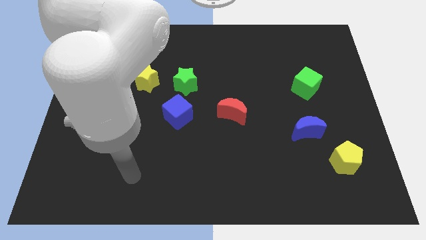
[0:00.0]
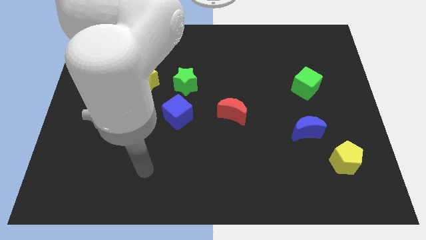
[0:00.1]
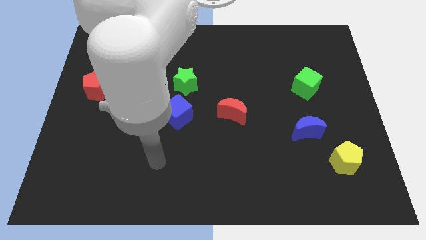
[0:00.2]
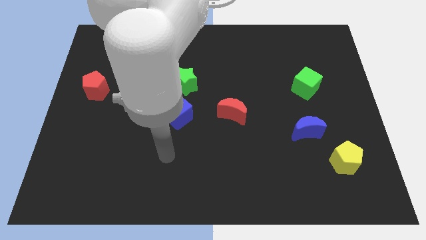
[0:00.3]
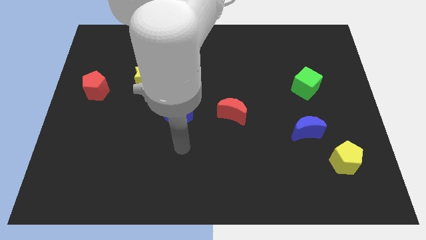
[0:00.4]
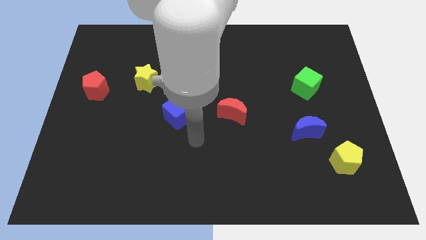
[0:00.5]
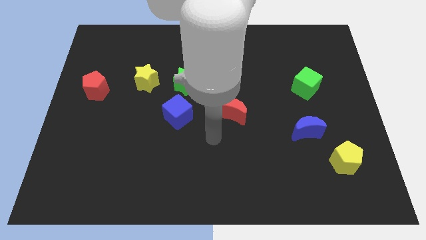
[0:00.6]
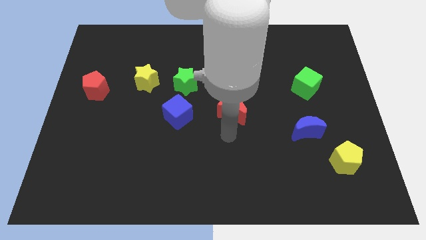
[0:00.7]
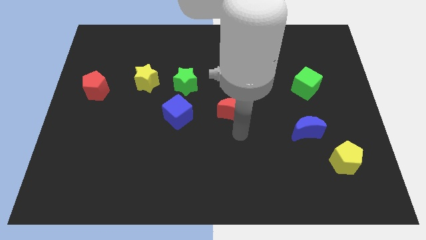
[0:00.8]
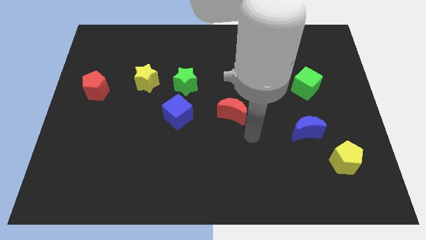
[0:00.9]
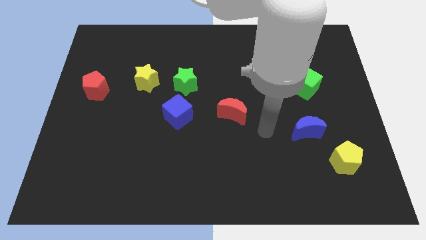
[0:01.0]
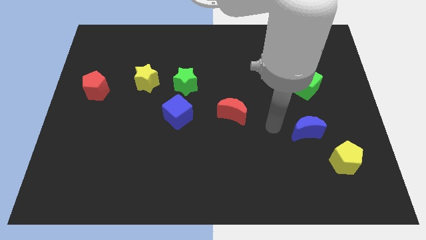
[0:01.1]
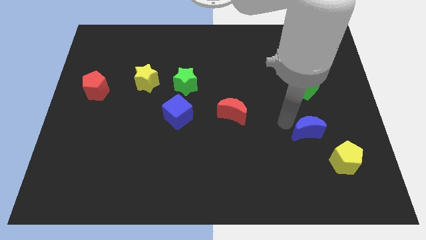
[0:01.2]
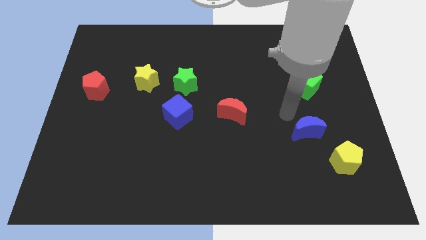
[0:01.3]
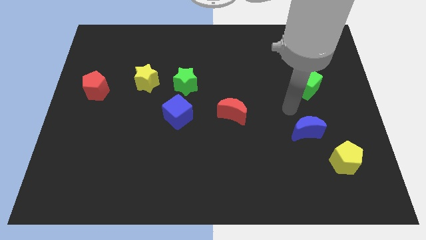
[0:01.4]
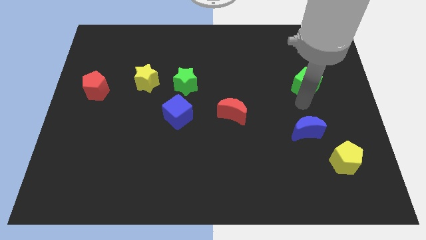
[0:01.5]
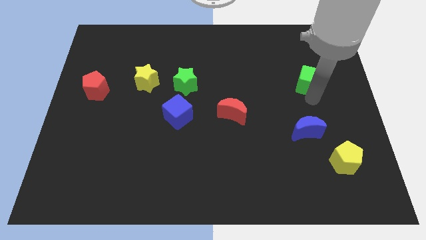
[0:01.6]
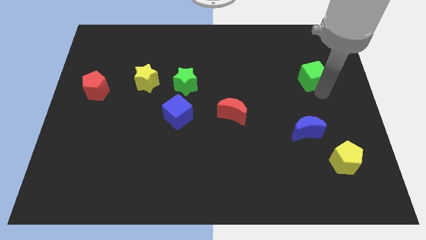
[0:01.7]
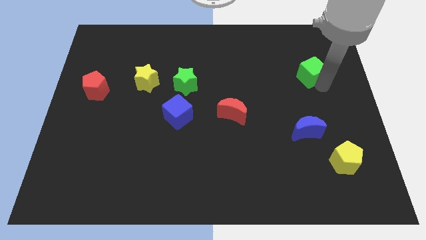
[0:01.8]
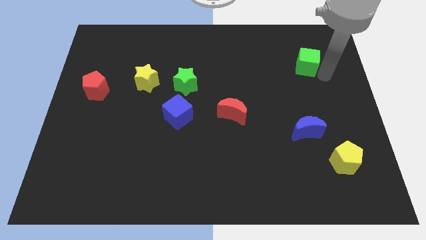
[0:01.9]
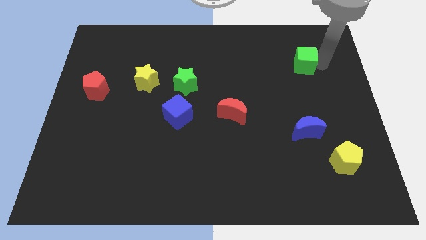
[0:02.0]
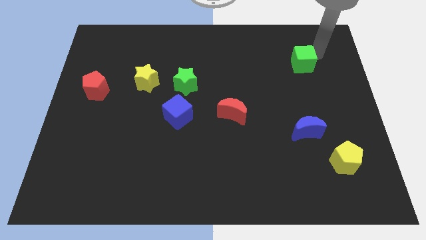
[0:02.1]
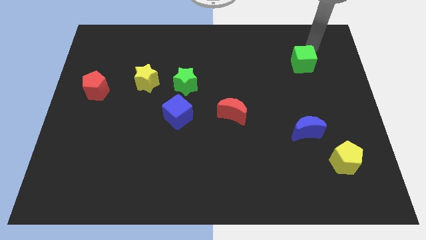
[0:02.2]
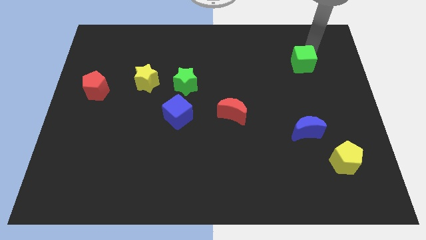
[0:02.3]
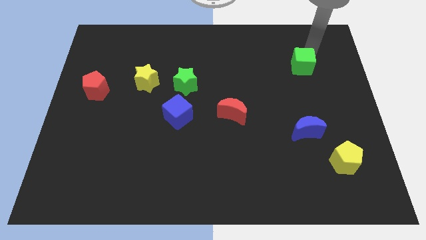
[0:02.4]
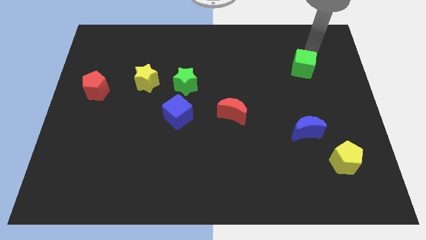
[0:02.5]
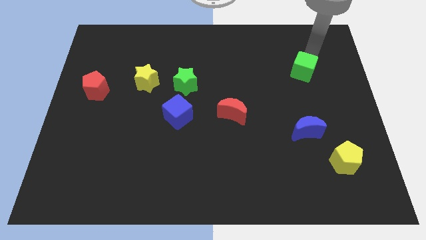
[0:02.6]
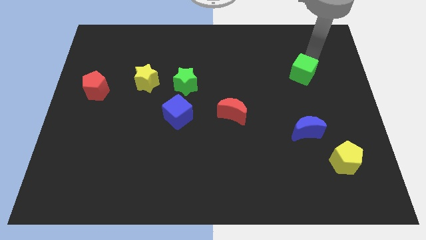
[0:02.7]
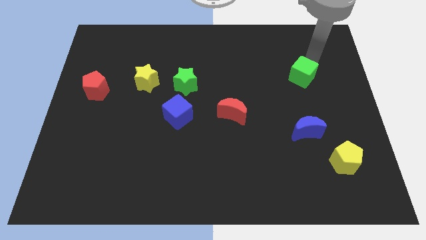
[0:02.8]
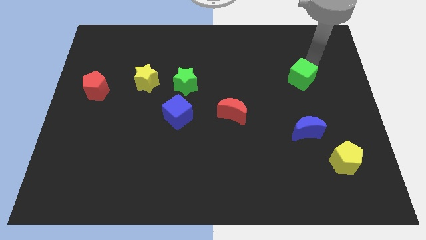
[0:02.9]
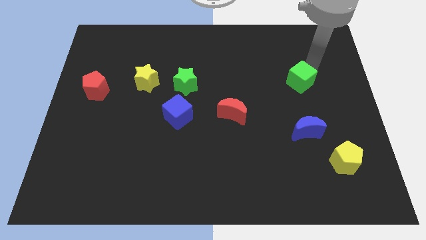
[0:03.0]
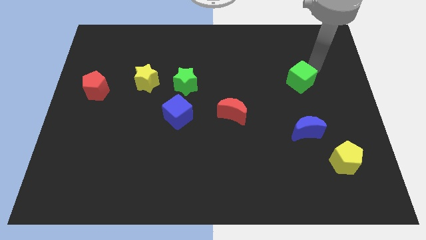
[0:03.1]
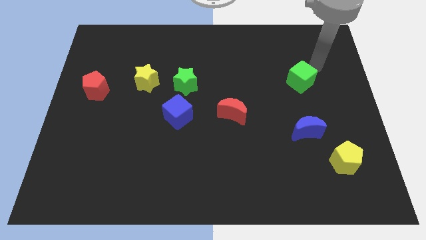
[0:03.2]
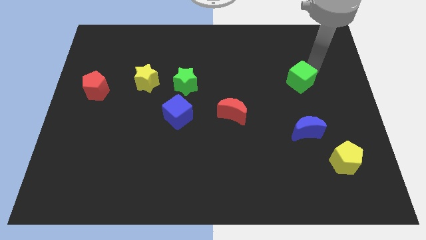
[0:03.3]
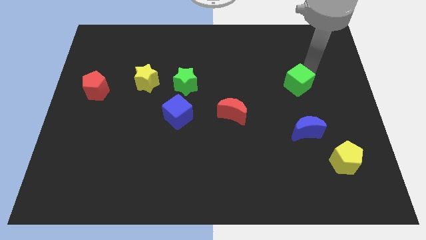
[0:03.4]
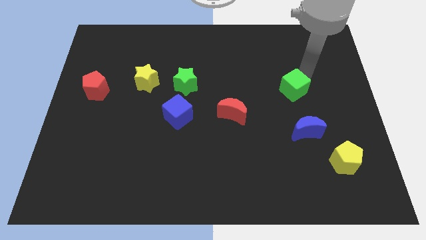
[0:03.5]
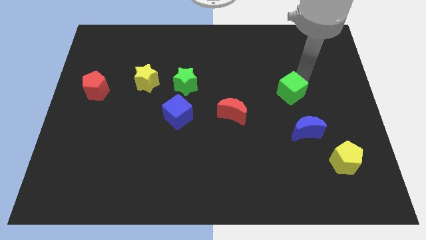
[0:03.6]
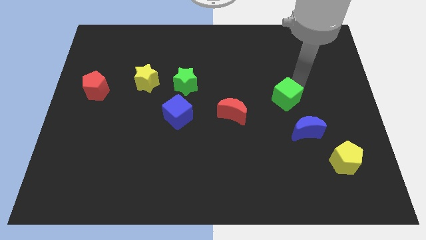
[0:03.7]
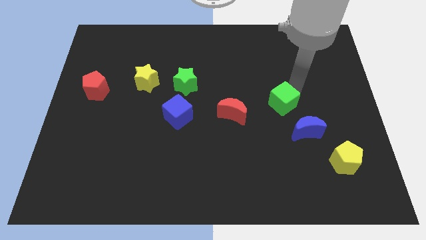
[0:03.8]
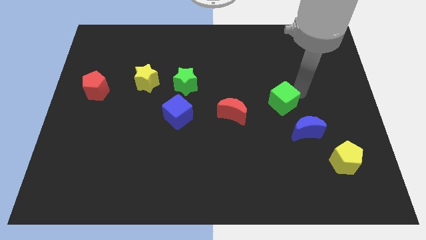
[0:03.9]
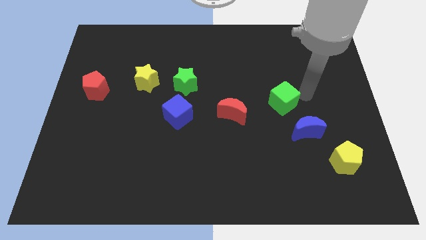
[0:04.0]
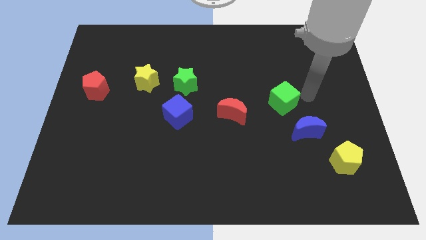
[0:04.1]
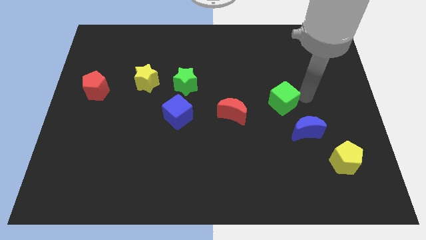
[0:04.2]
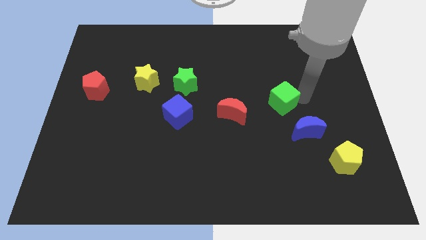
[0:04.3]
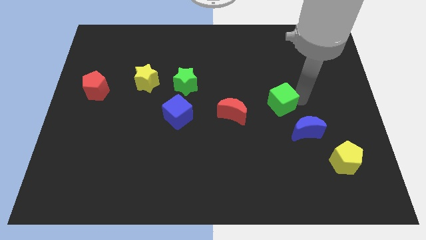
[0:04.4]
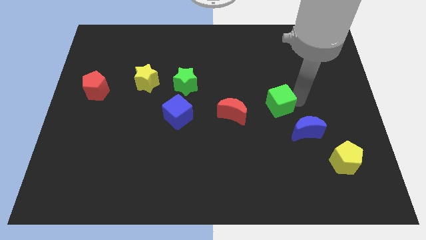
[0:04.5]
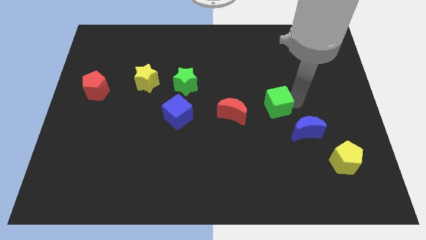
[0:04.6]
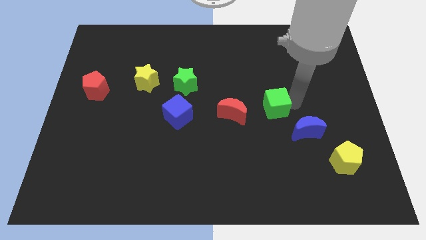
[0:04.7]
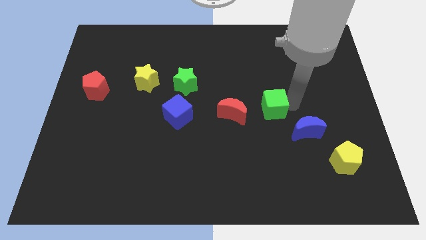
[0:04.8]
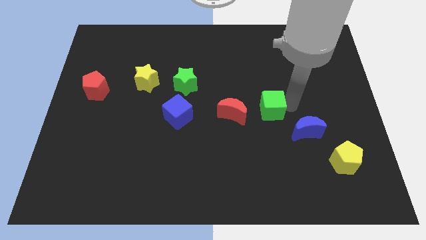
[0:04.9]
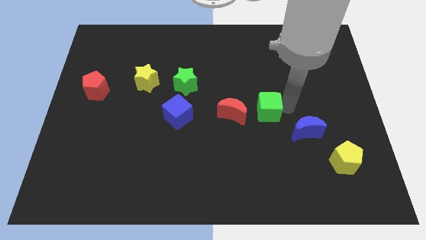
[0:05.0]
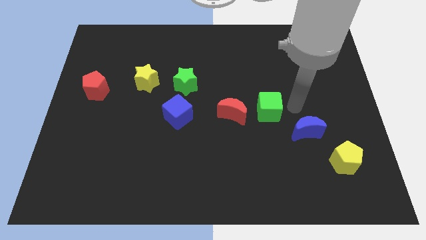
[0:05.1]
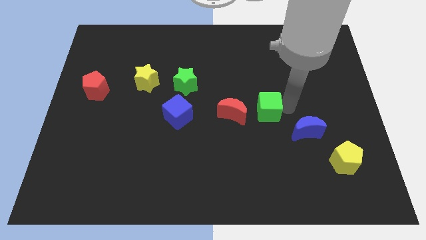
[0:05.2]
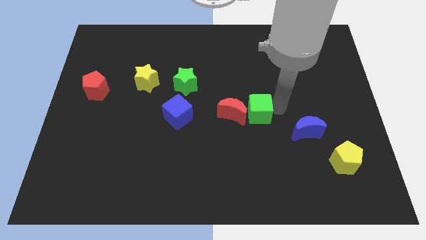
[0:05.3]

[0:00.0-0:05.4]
push the green cube close to the red moon

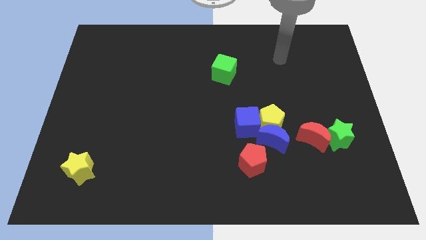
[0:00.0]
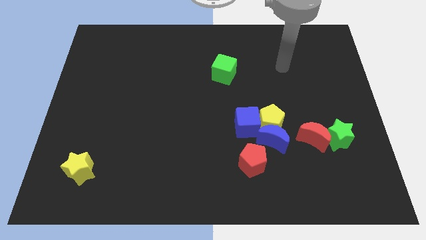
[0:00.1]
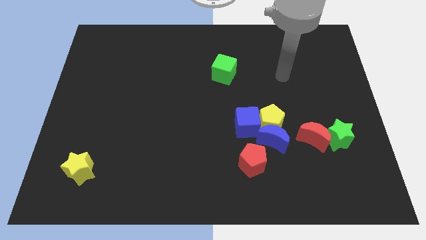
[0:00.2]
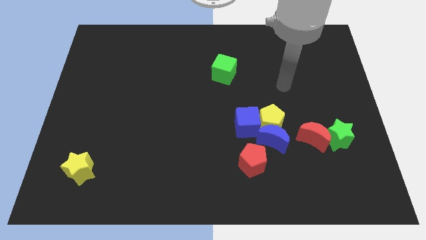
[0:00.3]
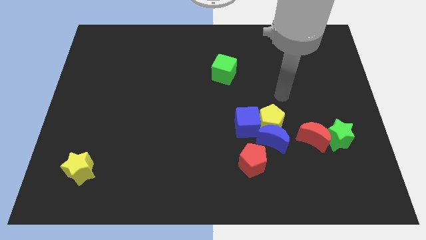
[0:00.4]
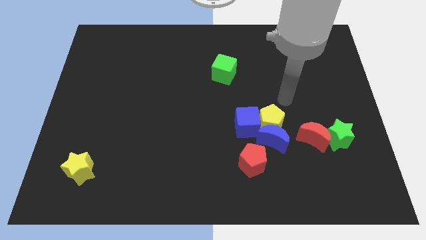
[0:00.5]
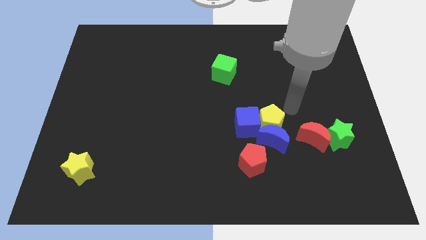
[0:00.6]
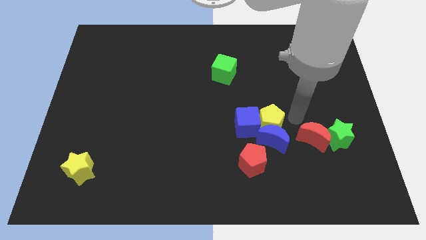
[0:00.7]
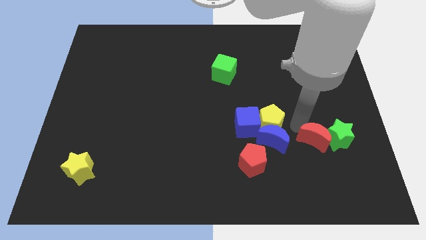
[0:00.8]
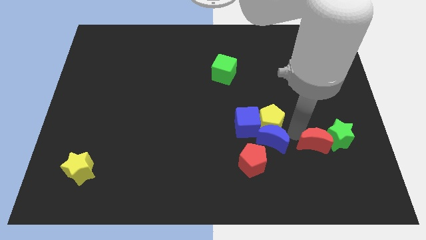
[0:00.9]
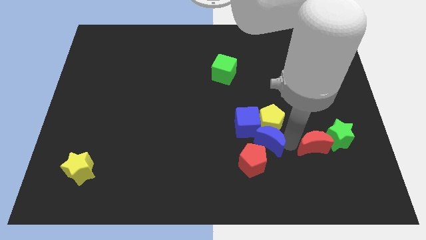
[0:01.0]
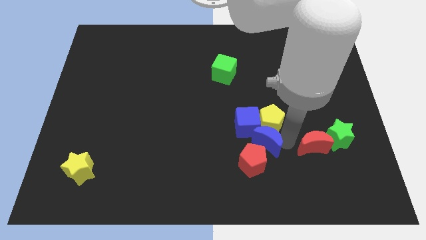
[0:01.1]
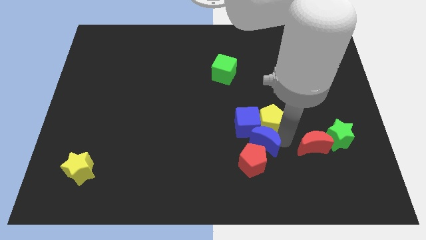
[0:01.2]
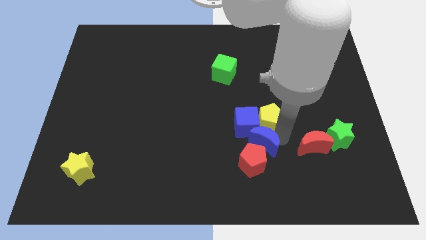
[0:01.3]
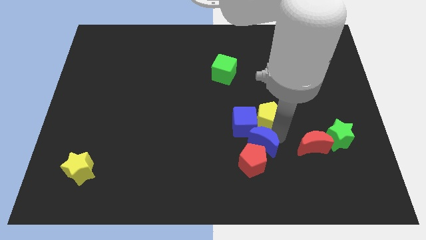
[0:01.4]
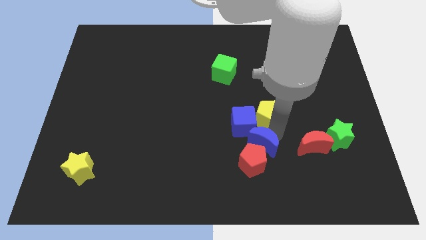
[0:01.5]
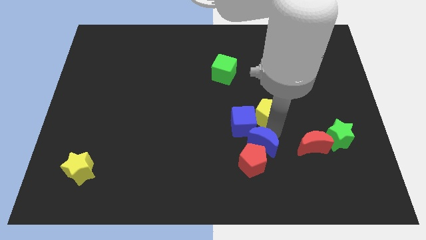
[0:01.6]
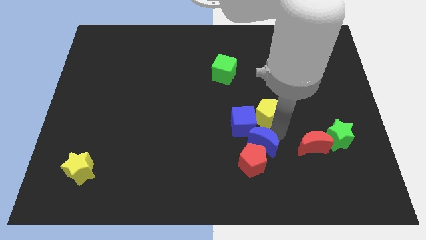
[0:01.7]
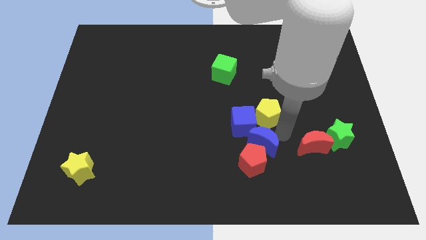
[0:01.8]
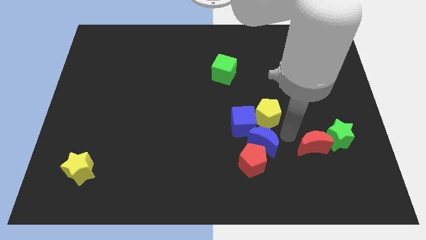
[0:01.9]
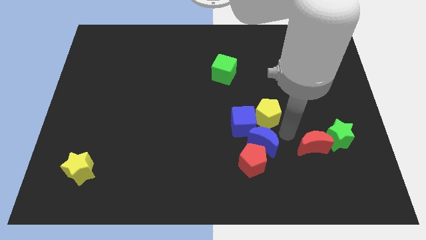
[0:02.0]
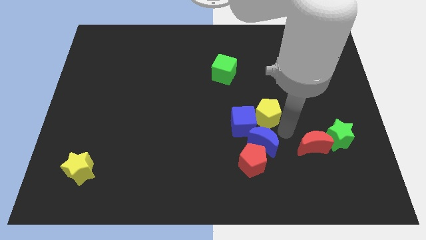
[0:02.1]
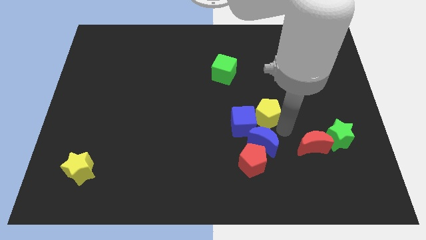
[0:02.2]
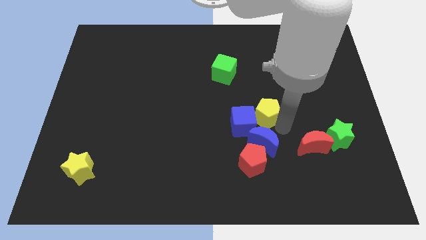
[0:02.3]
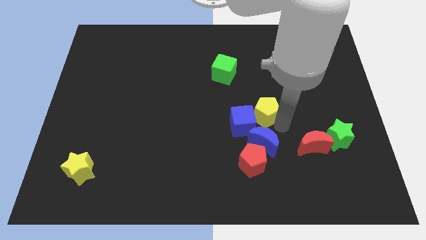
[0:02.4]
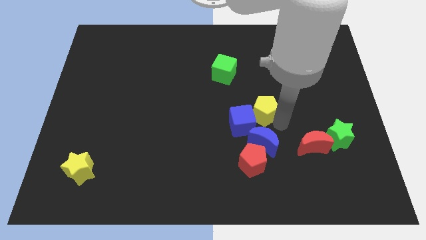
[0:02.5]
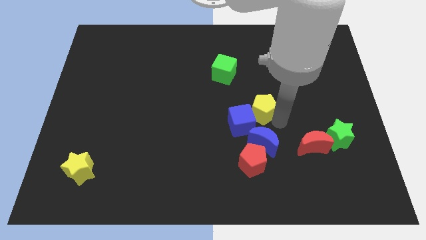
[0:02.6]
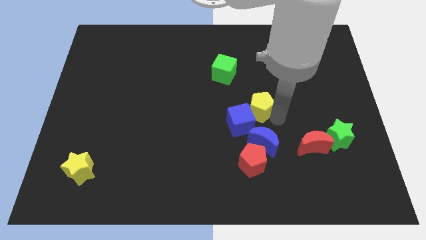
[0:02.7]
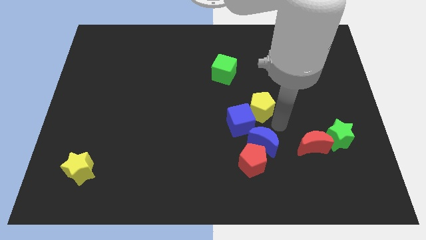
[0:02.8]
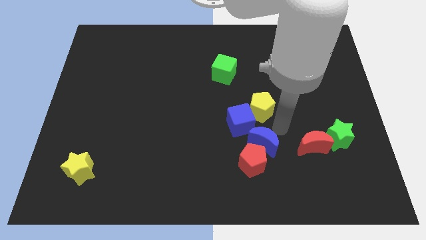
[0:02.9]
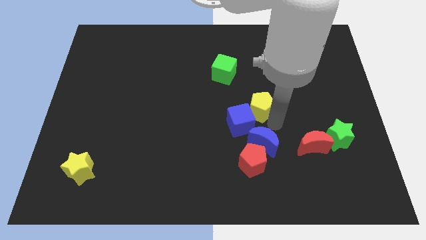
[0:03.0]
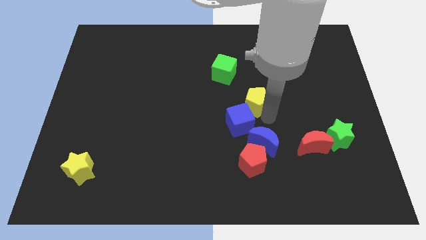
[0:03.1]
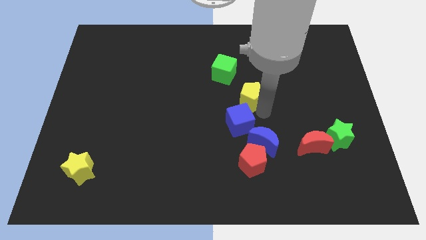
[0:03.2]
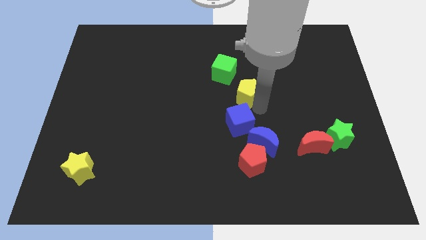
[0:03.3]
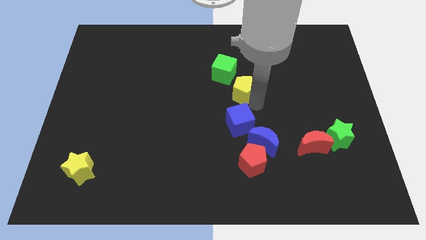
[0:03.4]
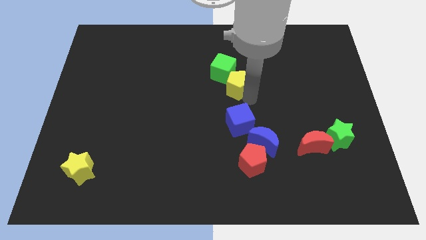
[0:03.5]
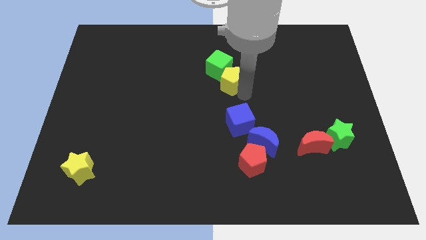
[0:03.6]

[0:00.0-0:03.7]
slide the yellow pentagon close to the green cube
